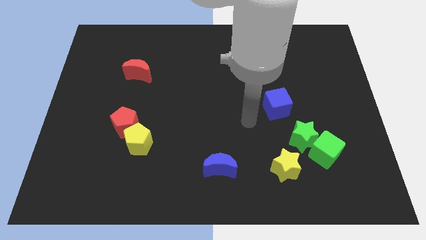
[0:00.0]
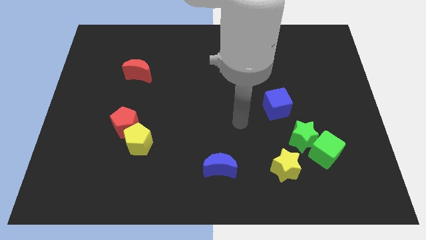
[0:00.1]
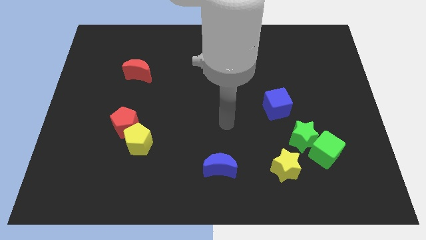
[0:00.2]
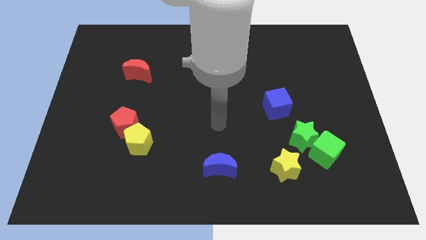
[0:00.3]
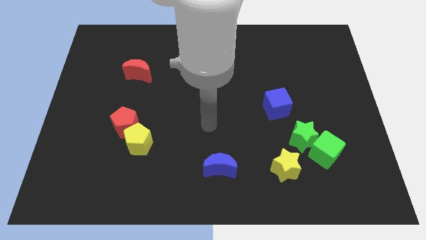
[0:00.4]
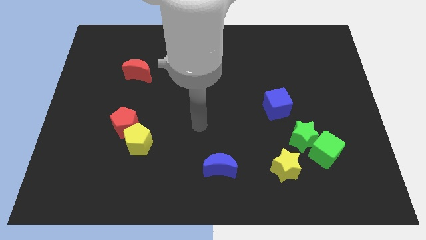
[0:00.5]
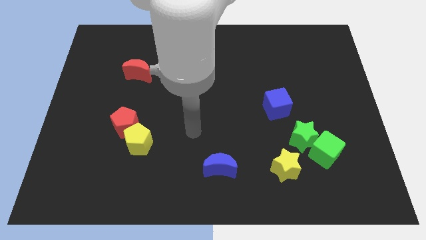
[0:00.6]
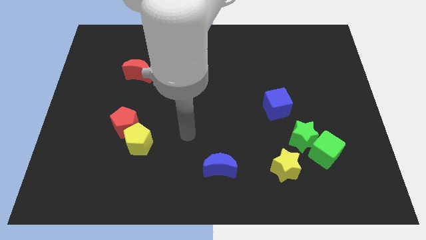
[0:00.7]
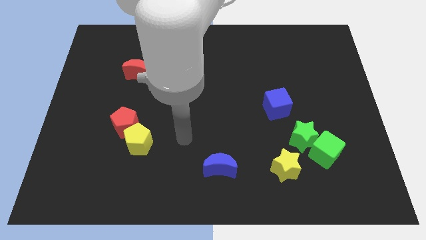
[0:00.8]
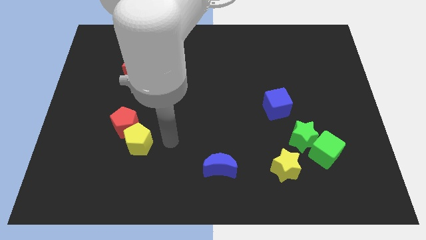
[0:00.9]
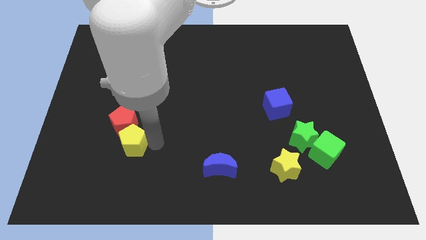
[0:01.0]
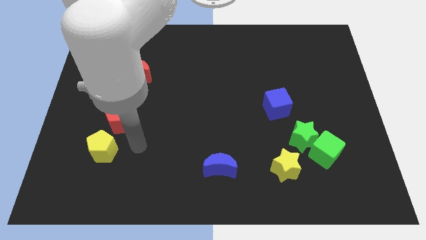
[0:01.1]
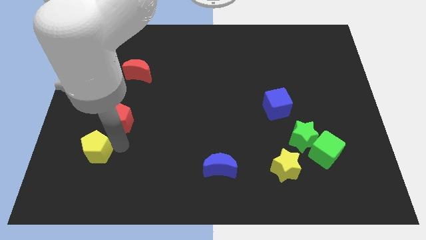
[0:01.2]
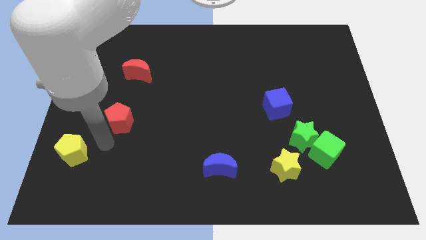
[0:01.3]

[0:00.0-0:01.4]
separate the red pentagon from the yellow pentagon

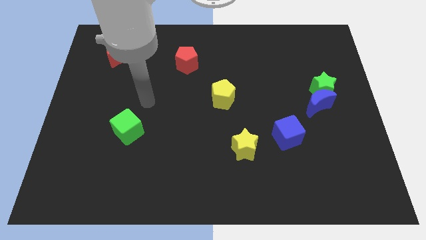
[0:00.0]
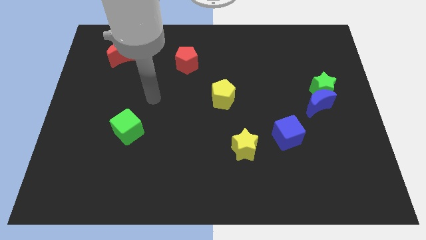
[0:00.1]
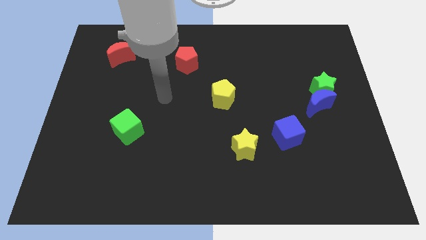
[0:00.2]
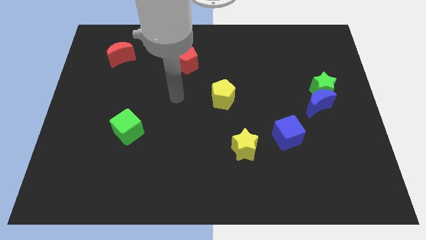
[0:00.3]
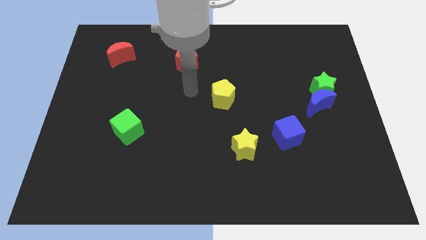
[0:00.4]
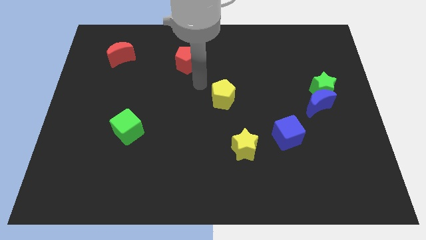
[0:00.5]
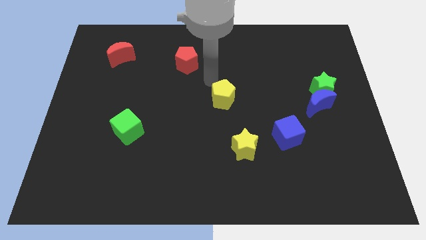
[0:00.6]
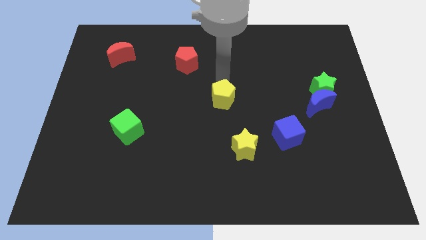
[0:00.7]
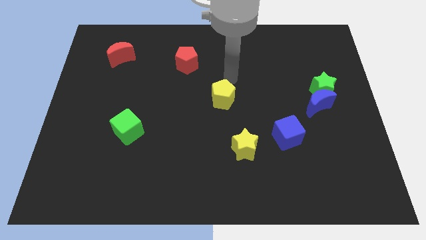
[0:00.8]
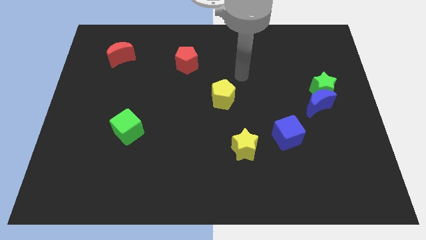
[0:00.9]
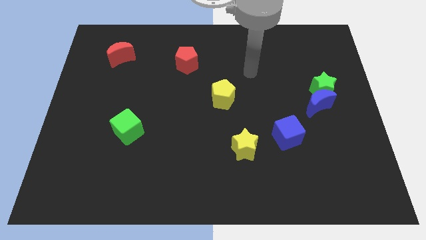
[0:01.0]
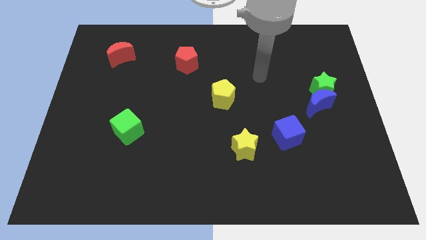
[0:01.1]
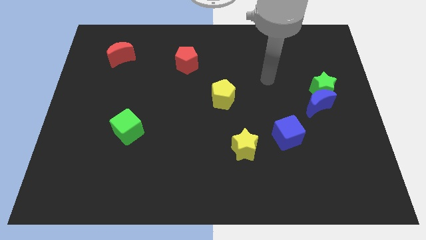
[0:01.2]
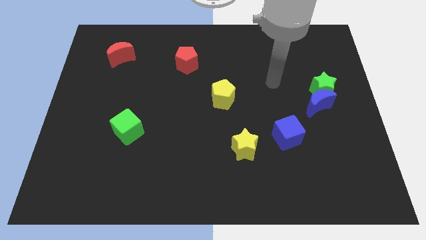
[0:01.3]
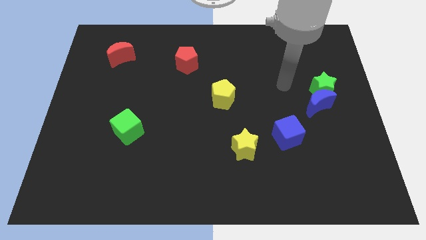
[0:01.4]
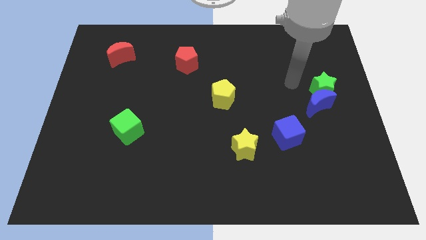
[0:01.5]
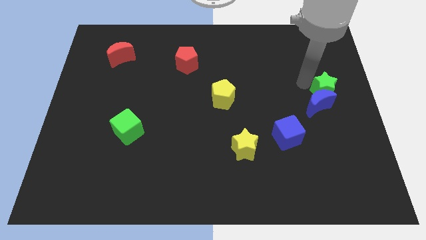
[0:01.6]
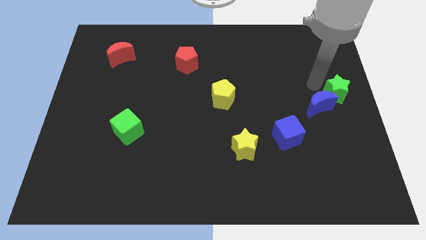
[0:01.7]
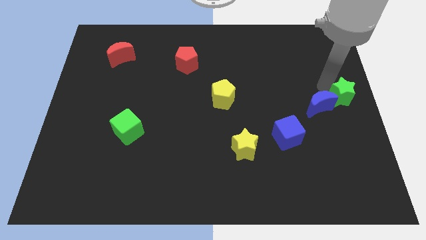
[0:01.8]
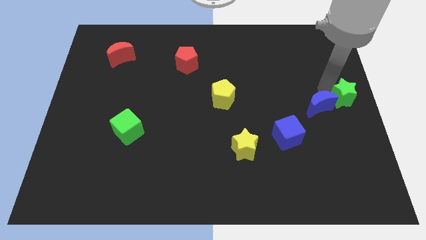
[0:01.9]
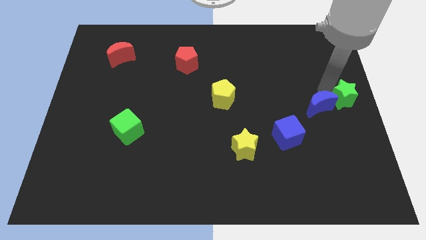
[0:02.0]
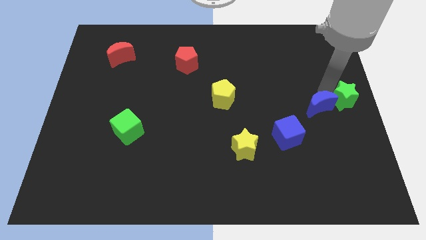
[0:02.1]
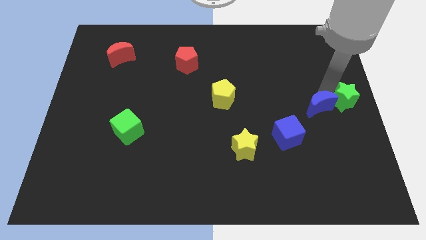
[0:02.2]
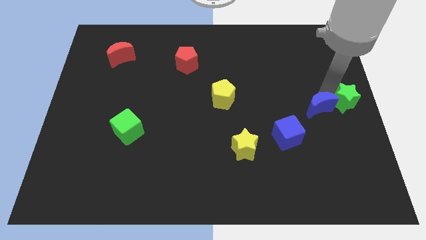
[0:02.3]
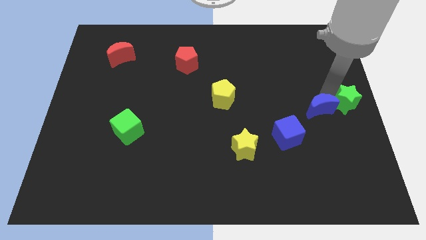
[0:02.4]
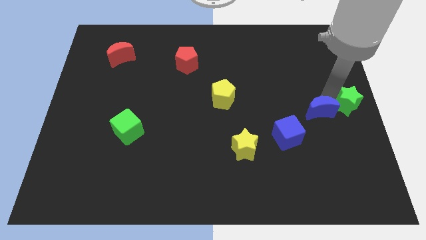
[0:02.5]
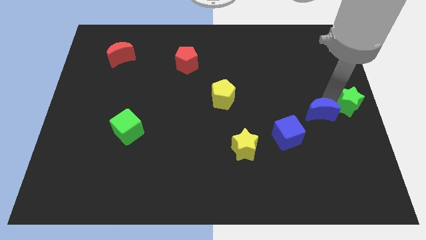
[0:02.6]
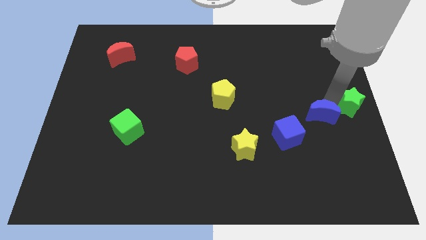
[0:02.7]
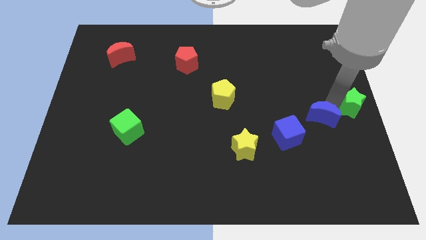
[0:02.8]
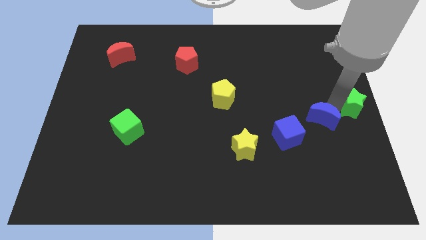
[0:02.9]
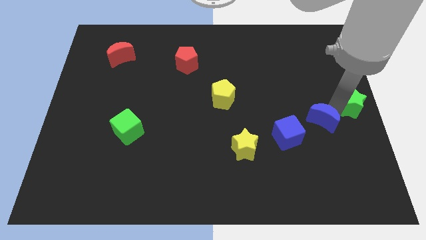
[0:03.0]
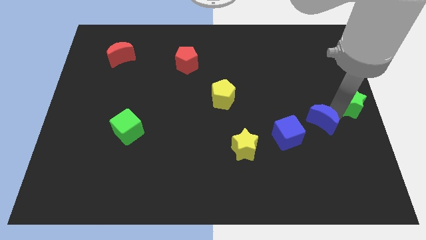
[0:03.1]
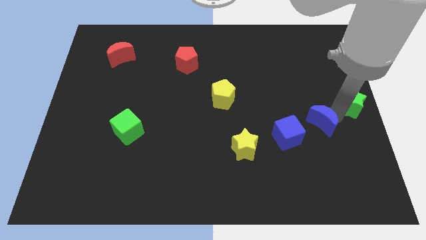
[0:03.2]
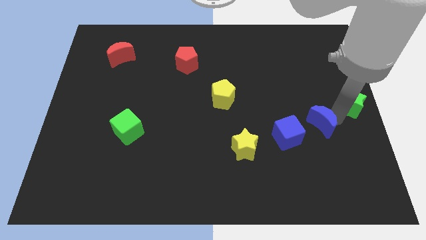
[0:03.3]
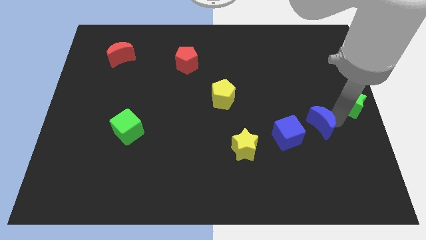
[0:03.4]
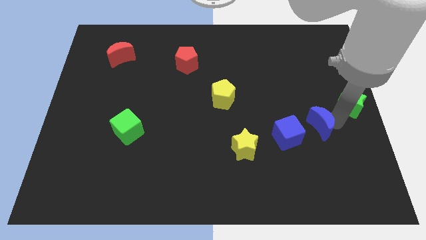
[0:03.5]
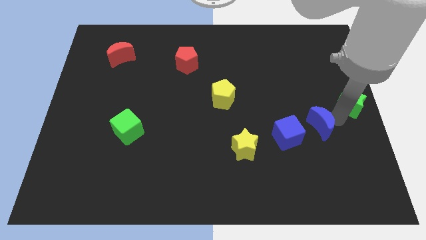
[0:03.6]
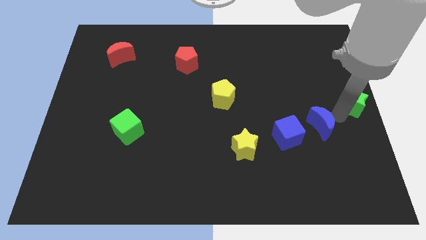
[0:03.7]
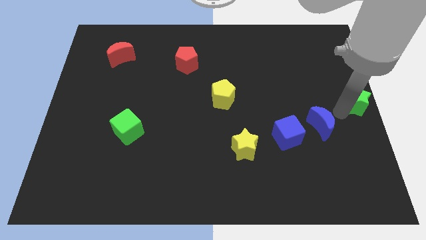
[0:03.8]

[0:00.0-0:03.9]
move the blue moon away from the green star

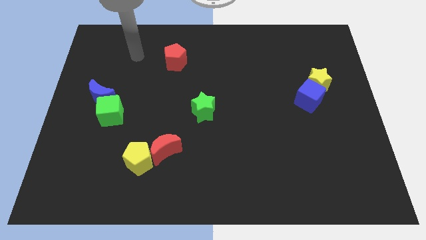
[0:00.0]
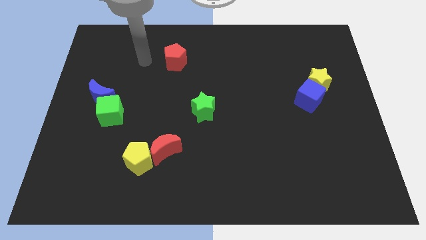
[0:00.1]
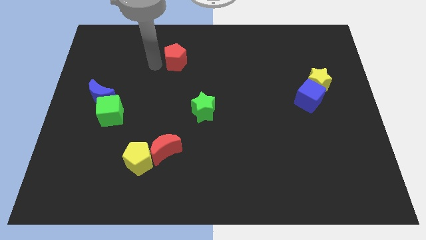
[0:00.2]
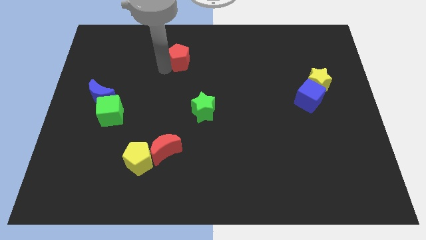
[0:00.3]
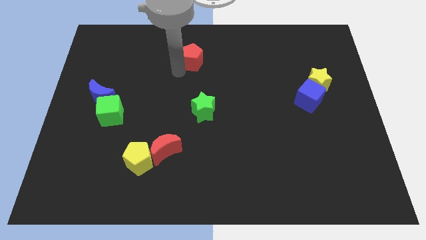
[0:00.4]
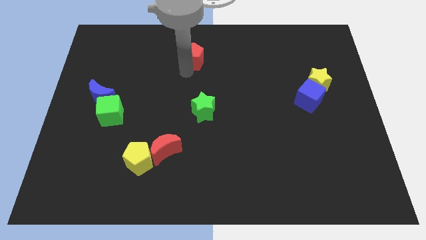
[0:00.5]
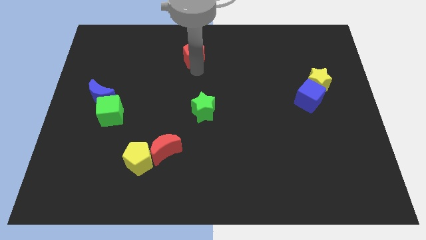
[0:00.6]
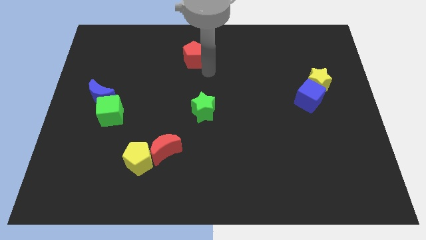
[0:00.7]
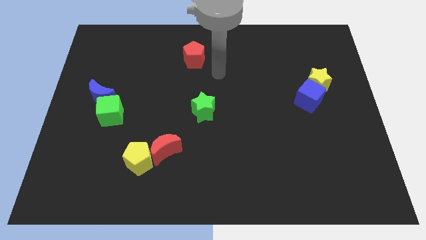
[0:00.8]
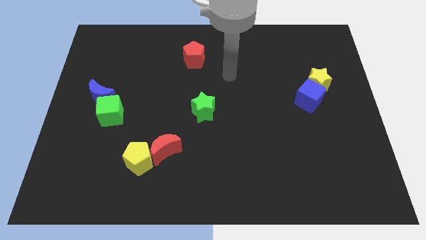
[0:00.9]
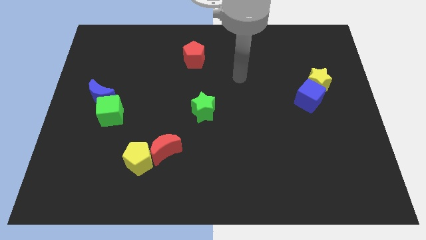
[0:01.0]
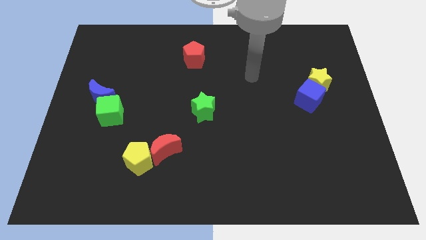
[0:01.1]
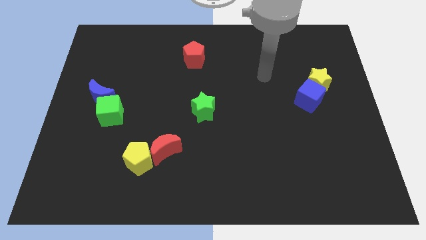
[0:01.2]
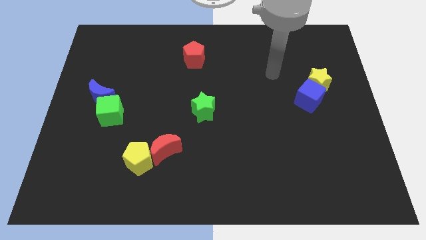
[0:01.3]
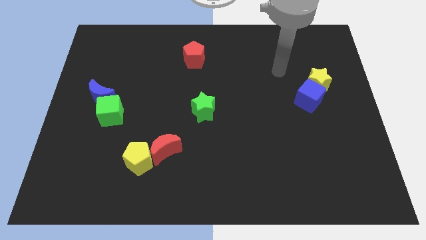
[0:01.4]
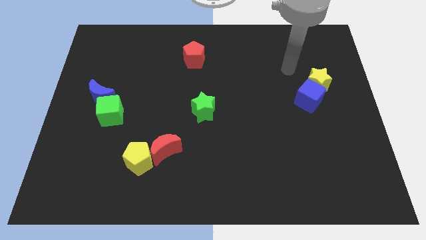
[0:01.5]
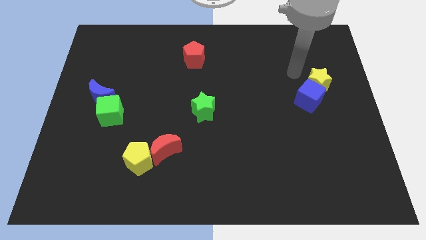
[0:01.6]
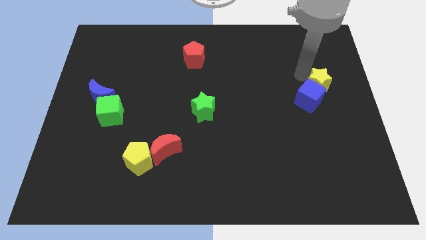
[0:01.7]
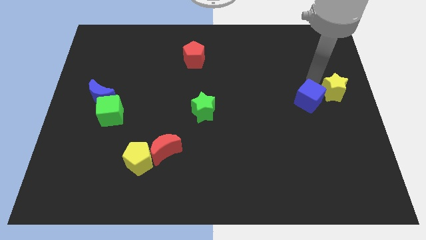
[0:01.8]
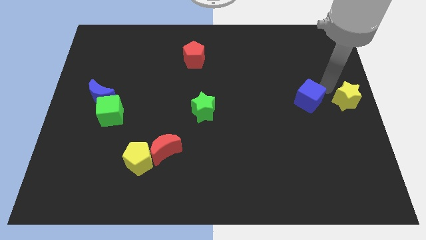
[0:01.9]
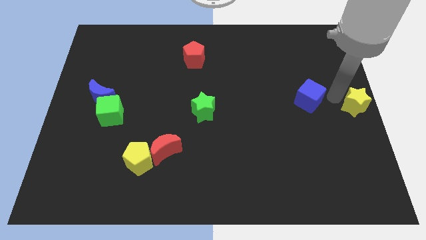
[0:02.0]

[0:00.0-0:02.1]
pull the blue cube apart from the yellow star

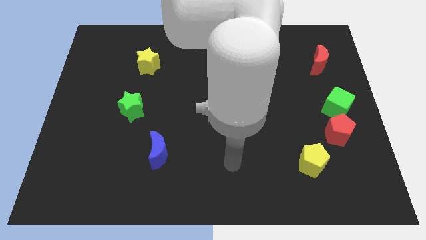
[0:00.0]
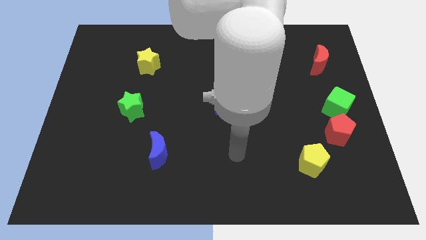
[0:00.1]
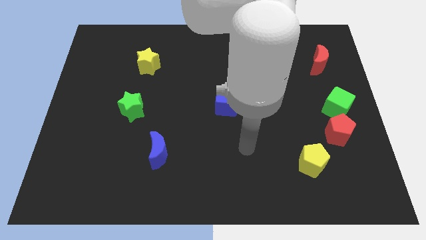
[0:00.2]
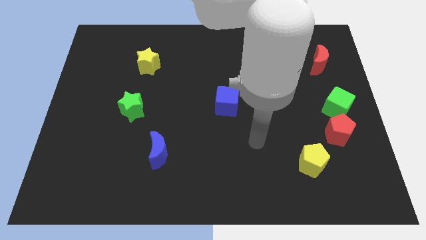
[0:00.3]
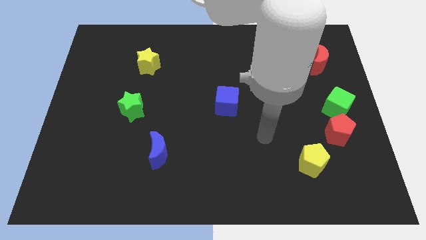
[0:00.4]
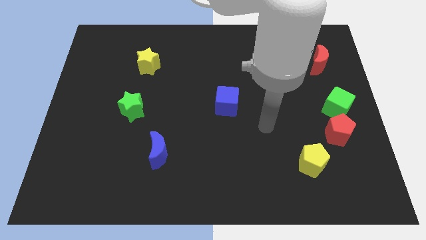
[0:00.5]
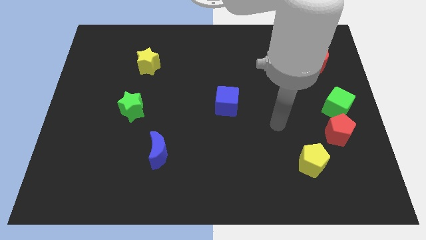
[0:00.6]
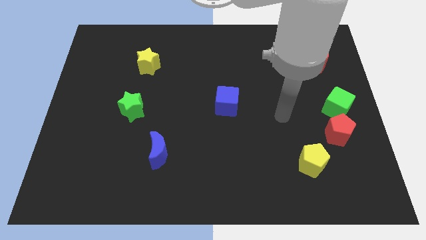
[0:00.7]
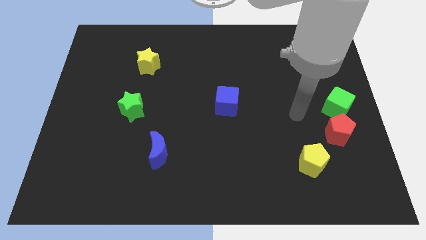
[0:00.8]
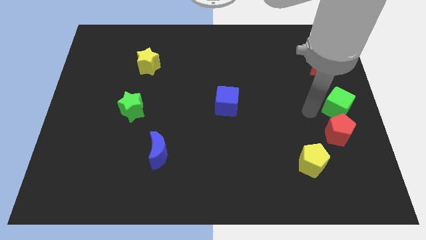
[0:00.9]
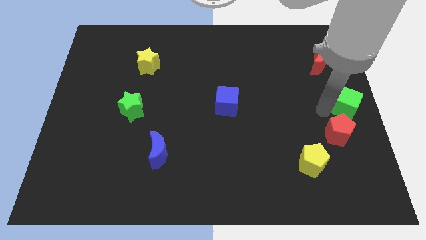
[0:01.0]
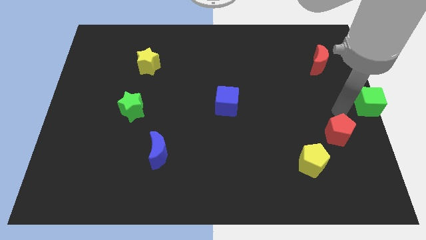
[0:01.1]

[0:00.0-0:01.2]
pull the red pentagon apart from the green cube

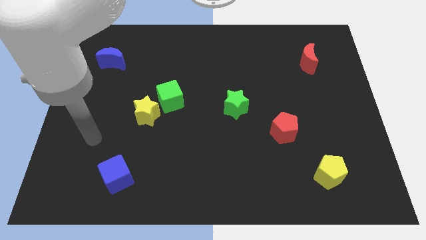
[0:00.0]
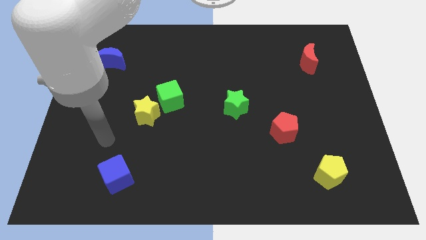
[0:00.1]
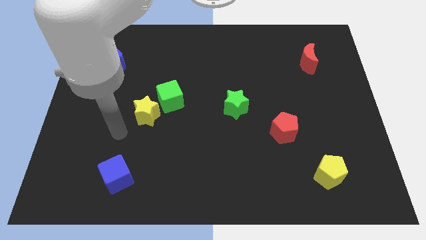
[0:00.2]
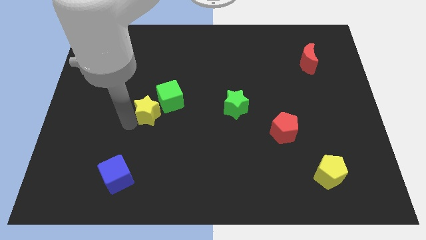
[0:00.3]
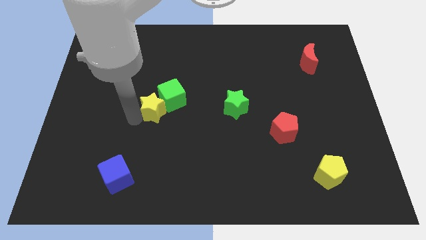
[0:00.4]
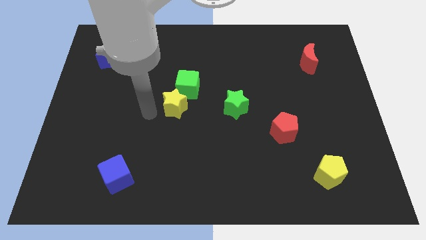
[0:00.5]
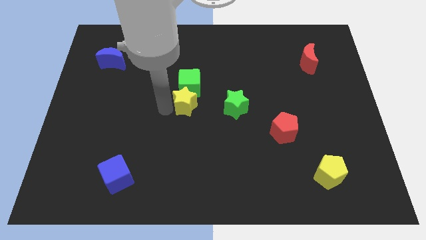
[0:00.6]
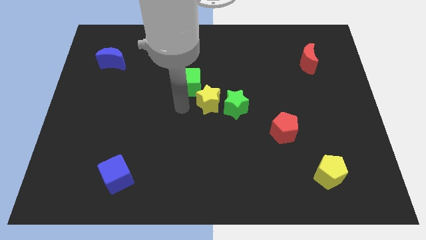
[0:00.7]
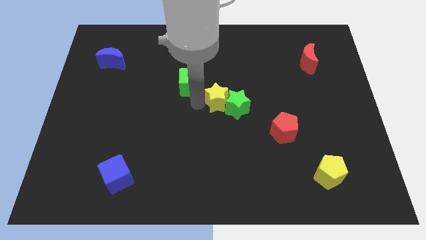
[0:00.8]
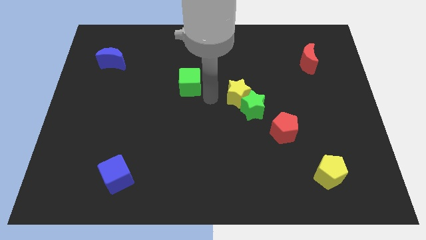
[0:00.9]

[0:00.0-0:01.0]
pull the green cube apart from the yellow star
